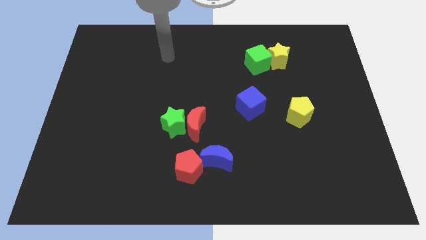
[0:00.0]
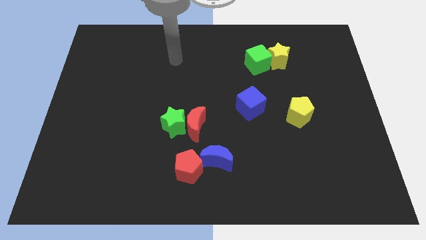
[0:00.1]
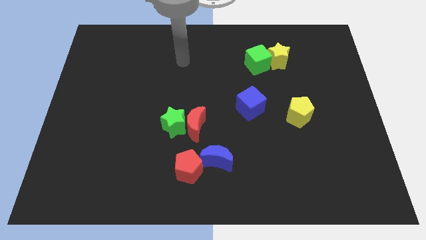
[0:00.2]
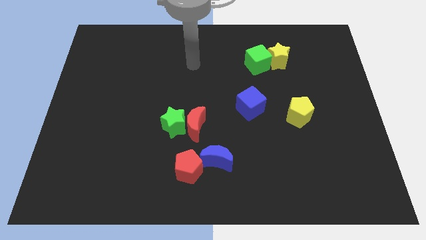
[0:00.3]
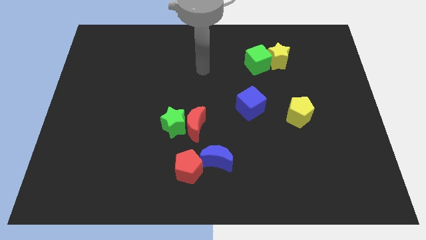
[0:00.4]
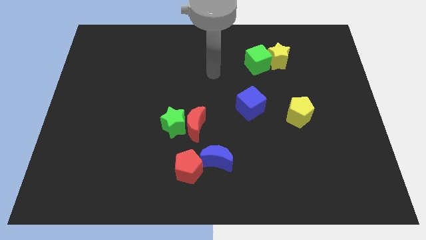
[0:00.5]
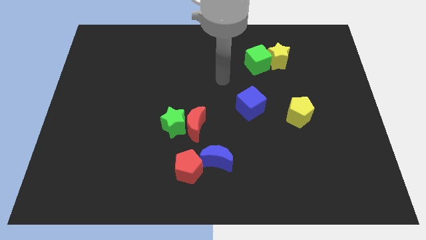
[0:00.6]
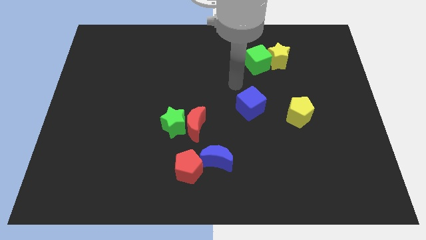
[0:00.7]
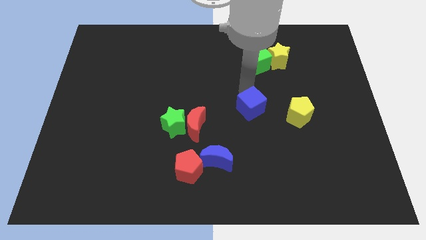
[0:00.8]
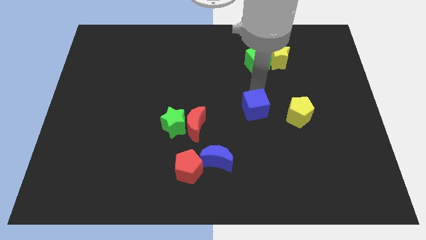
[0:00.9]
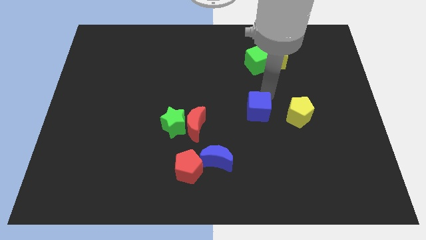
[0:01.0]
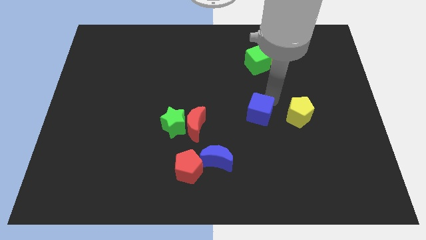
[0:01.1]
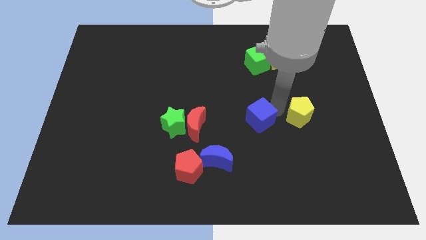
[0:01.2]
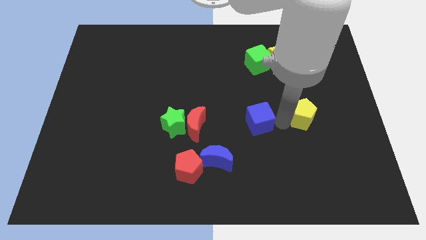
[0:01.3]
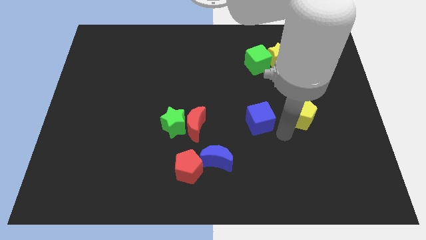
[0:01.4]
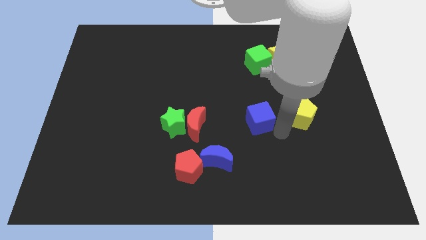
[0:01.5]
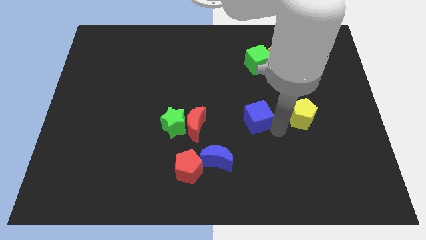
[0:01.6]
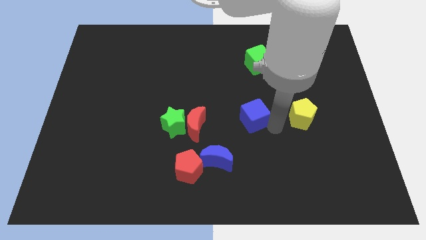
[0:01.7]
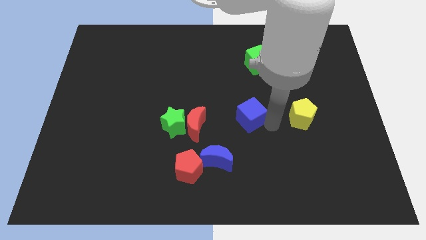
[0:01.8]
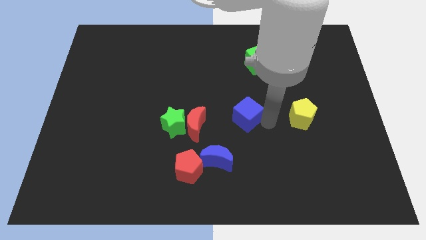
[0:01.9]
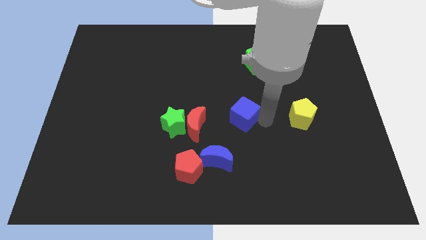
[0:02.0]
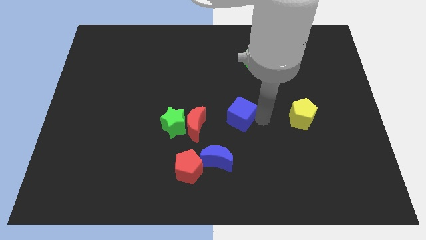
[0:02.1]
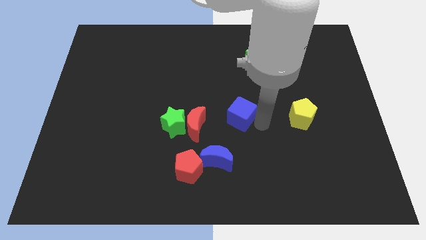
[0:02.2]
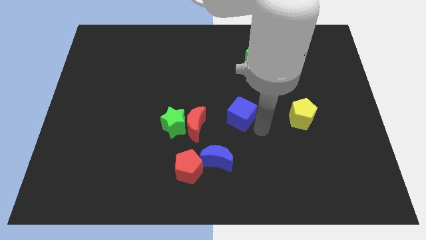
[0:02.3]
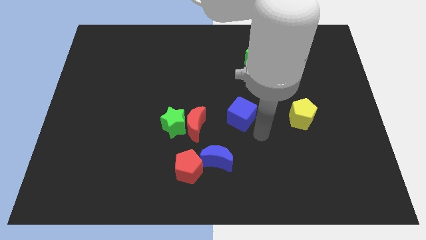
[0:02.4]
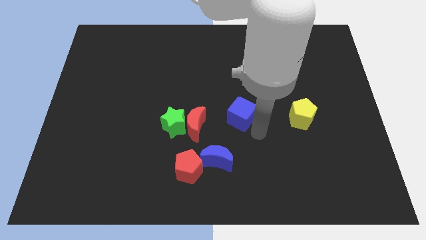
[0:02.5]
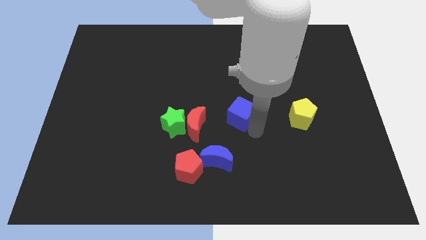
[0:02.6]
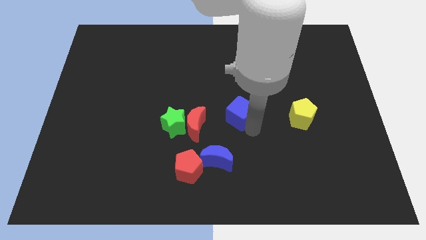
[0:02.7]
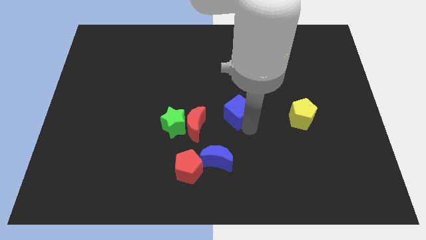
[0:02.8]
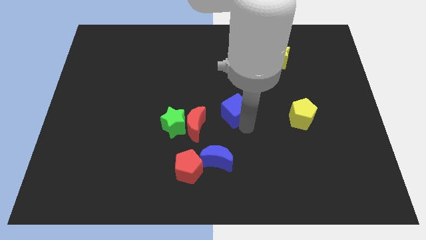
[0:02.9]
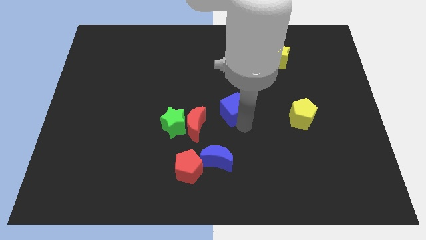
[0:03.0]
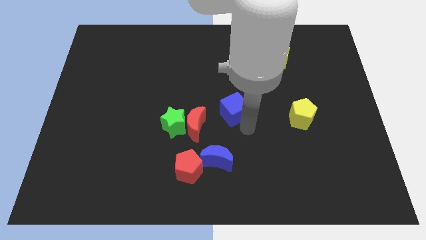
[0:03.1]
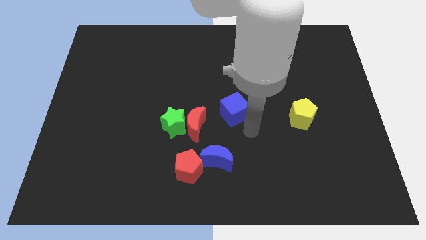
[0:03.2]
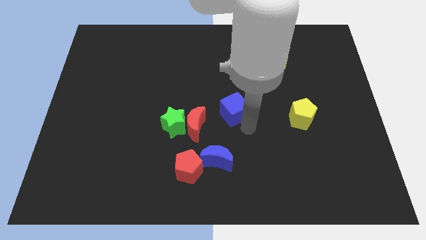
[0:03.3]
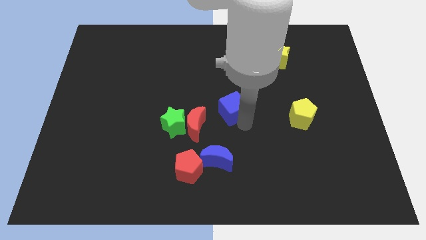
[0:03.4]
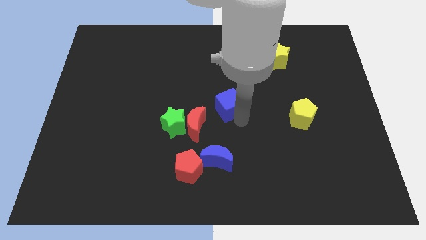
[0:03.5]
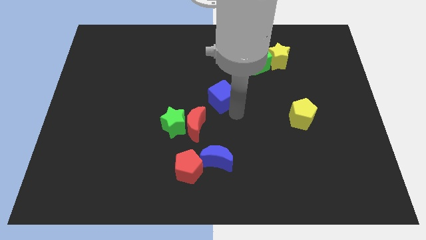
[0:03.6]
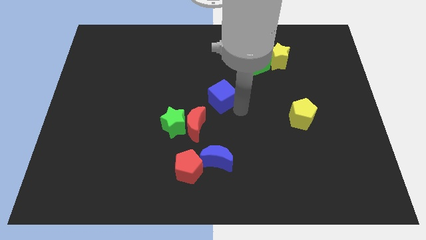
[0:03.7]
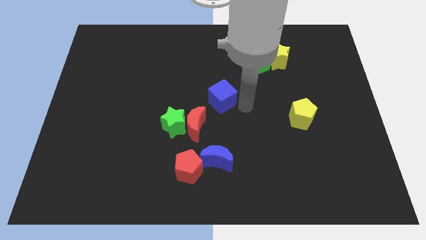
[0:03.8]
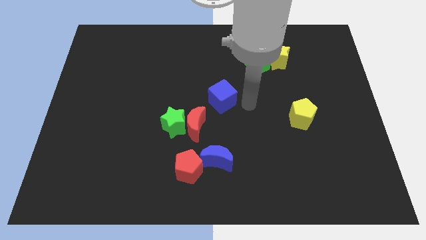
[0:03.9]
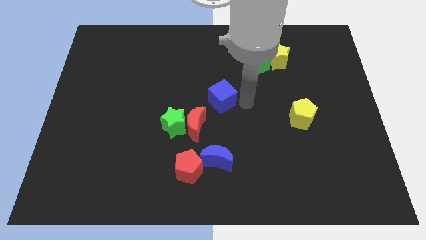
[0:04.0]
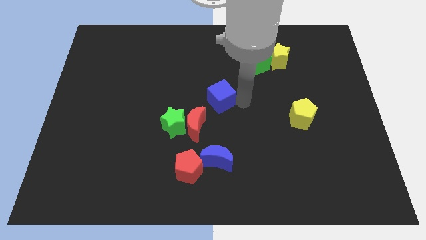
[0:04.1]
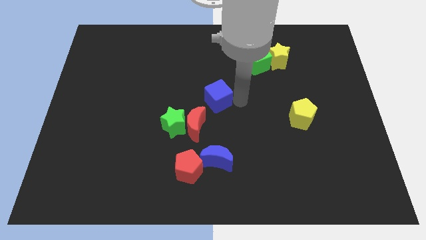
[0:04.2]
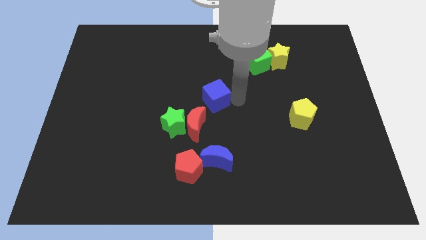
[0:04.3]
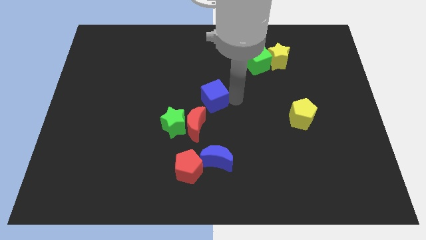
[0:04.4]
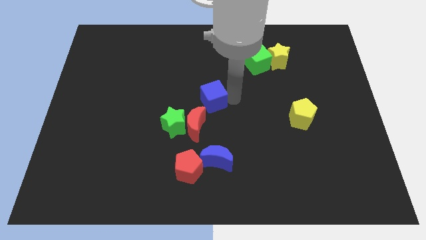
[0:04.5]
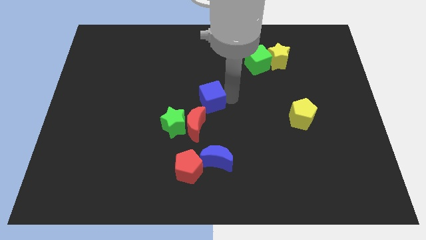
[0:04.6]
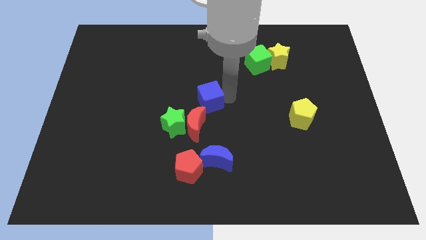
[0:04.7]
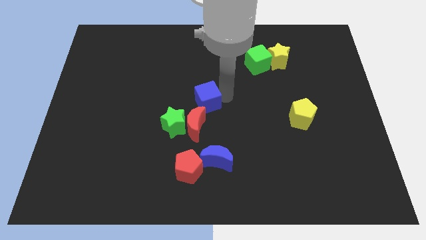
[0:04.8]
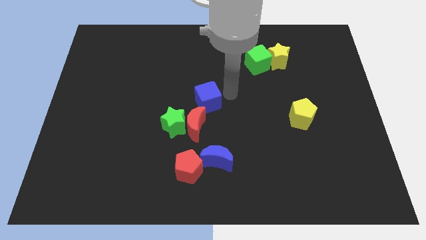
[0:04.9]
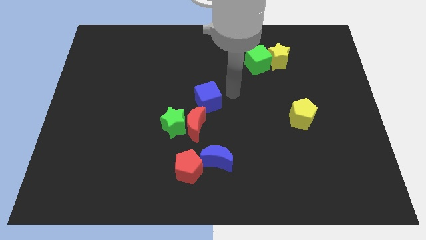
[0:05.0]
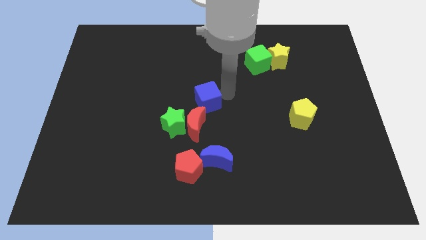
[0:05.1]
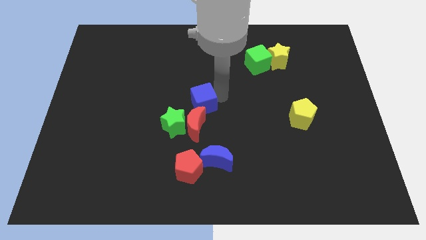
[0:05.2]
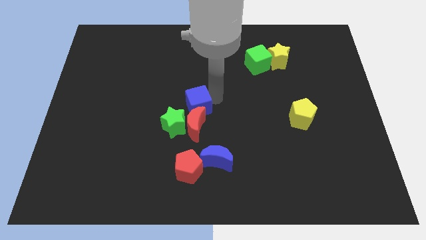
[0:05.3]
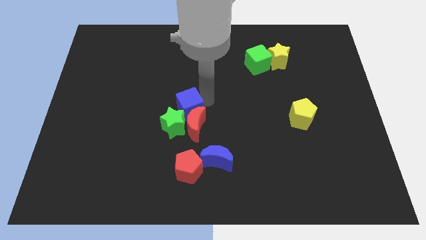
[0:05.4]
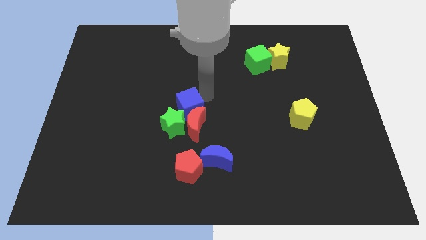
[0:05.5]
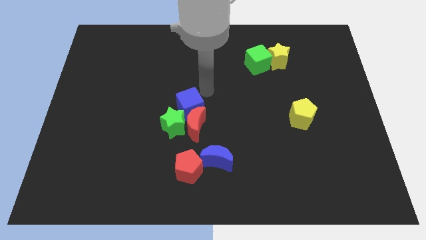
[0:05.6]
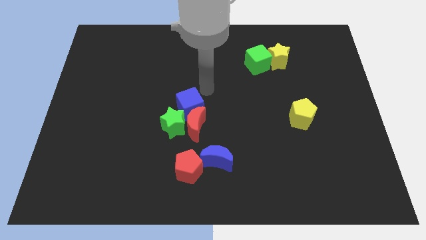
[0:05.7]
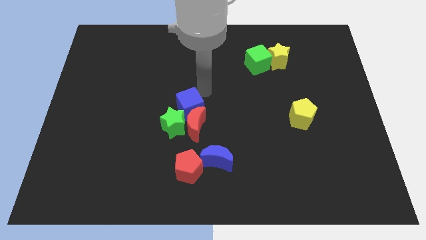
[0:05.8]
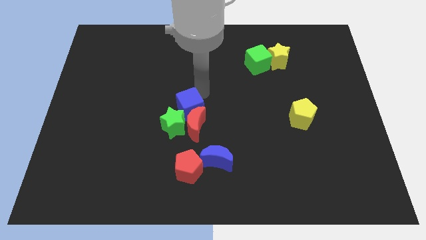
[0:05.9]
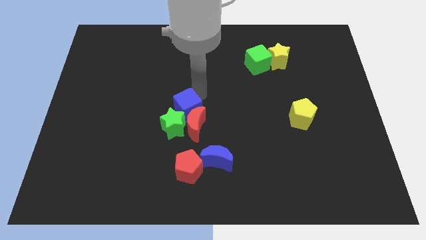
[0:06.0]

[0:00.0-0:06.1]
slide the blue cube towards the green star

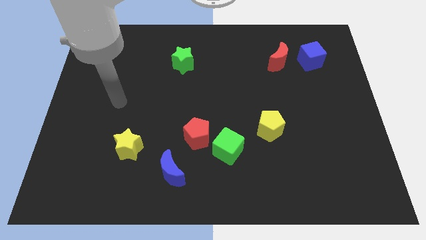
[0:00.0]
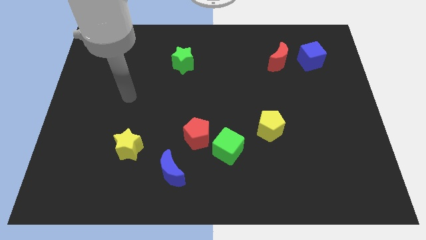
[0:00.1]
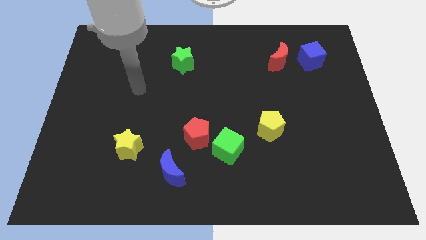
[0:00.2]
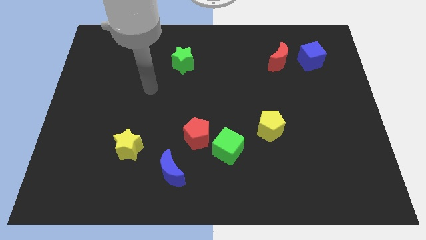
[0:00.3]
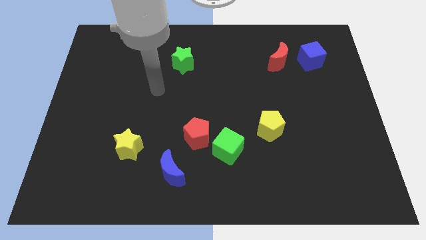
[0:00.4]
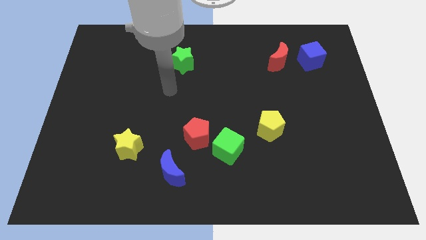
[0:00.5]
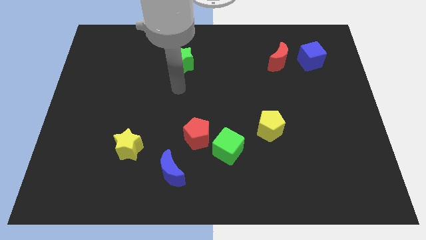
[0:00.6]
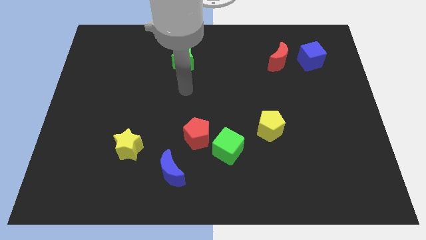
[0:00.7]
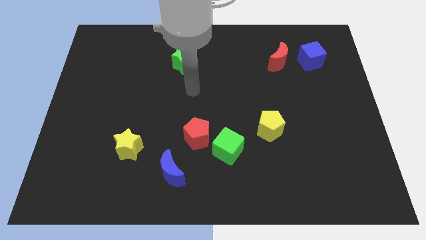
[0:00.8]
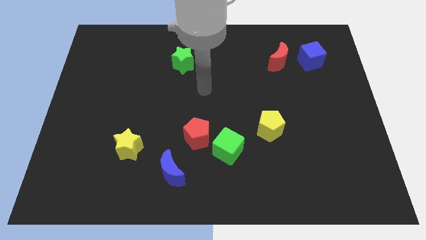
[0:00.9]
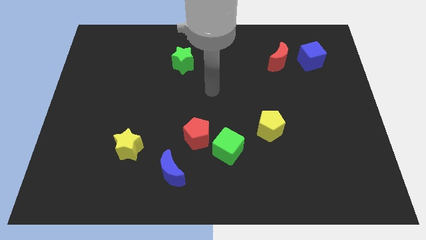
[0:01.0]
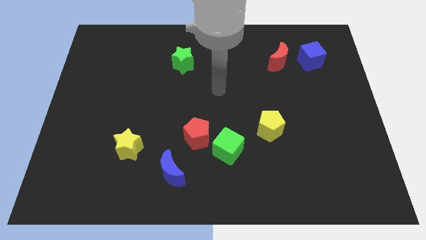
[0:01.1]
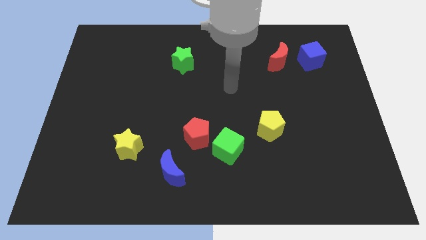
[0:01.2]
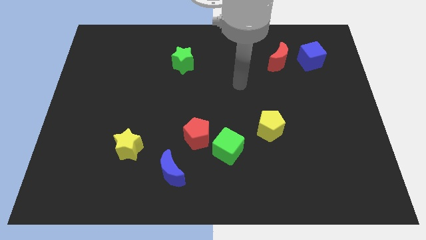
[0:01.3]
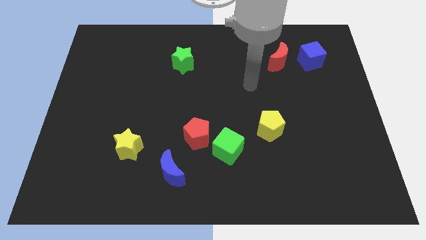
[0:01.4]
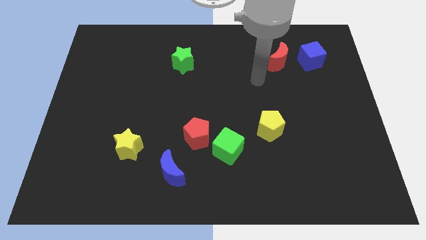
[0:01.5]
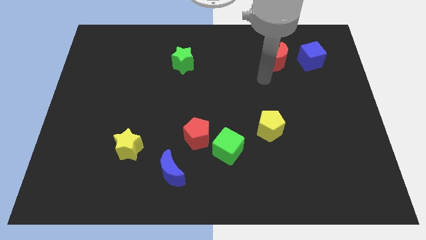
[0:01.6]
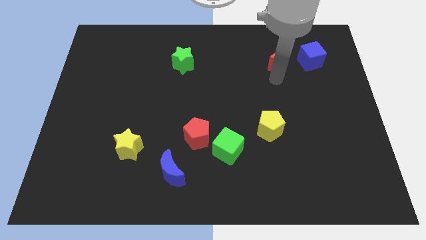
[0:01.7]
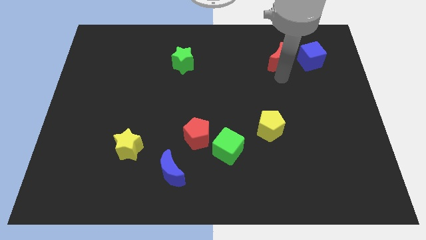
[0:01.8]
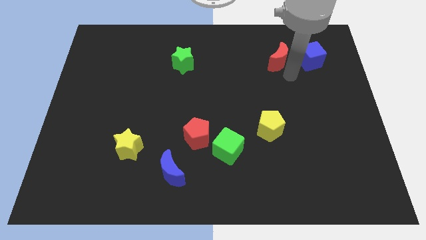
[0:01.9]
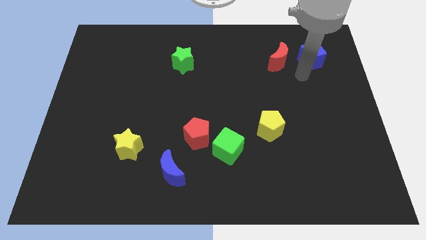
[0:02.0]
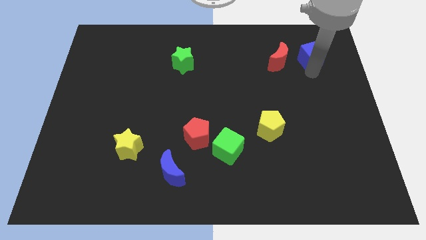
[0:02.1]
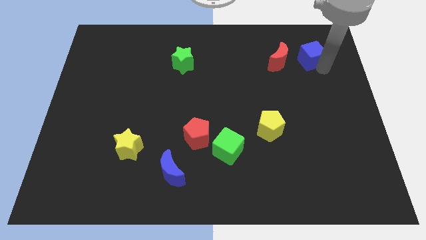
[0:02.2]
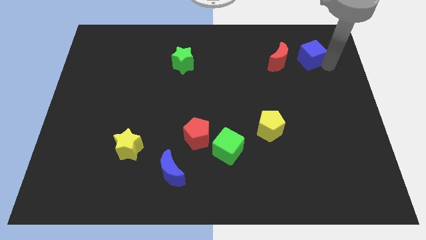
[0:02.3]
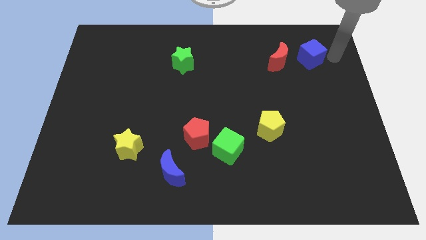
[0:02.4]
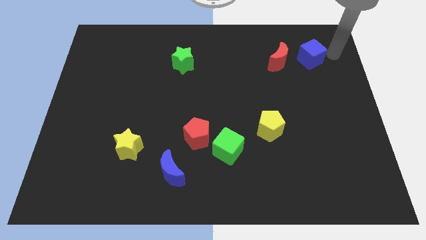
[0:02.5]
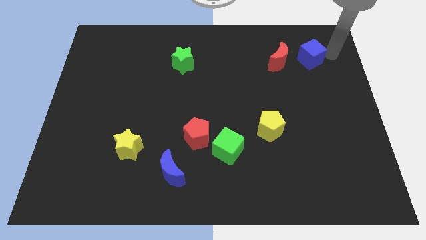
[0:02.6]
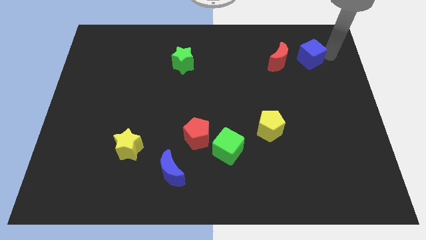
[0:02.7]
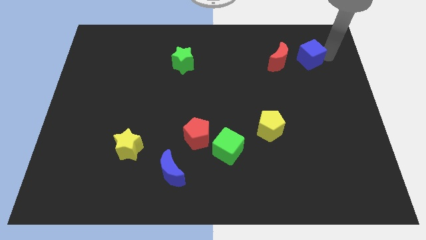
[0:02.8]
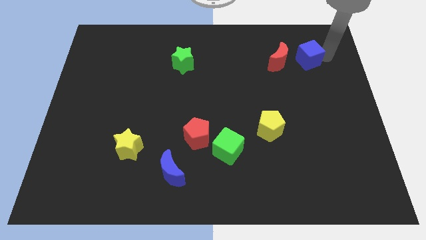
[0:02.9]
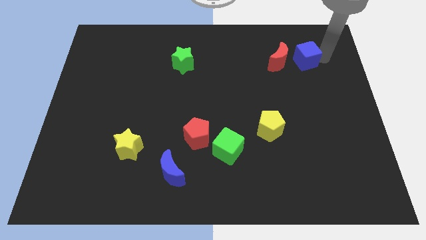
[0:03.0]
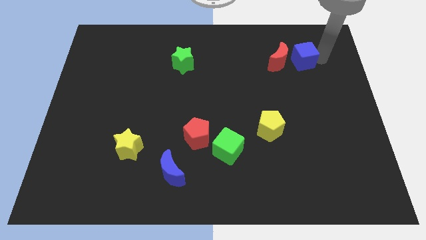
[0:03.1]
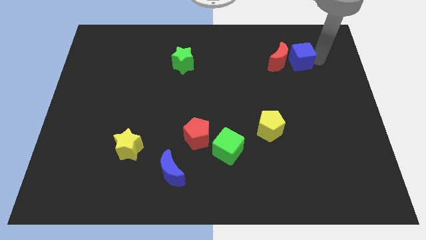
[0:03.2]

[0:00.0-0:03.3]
push the blue cube close to the red moon
